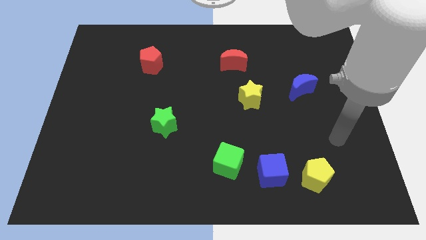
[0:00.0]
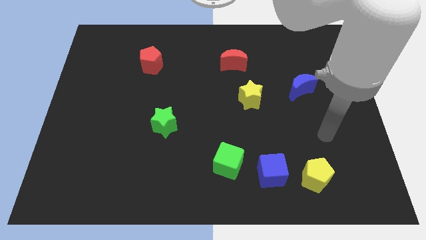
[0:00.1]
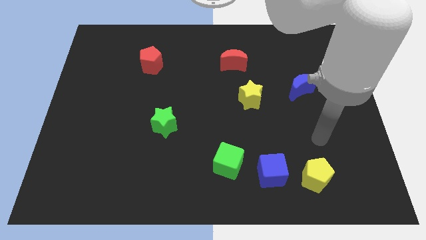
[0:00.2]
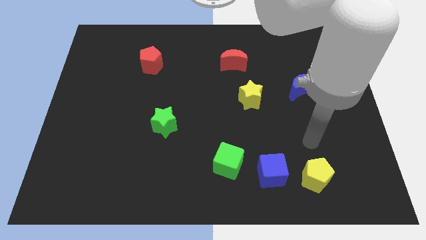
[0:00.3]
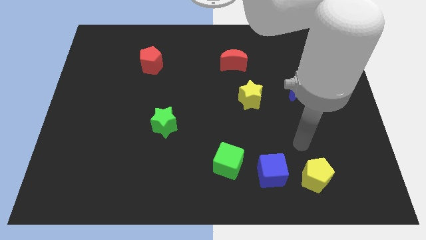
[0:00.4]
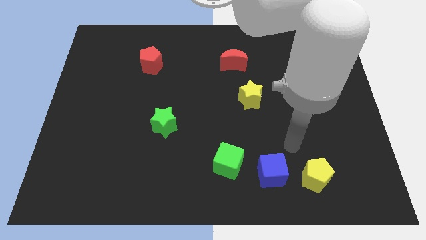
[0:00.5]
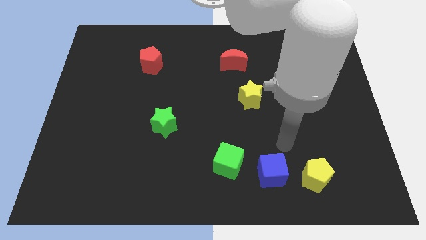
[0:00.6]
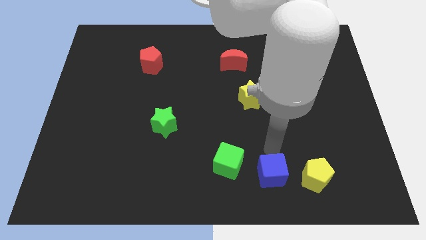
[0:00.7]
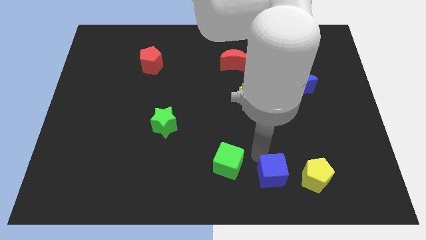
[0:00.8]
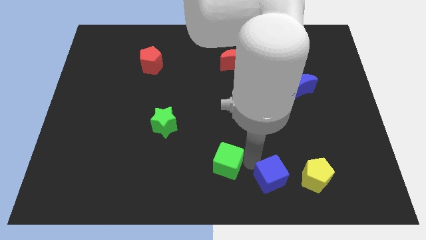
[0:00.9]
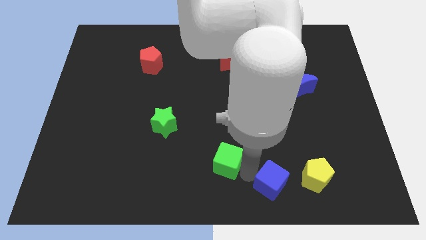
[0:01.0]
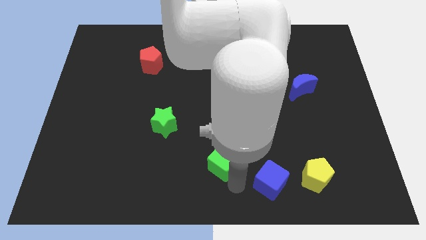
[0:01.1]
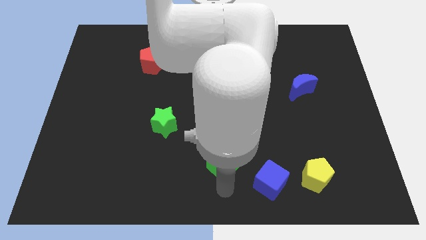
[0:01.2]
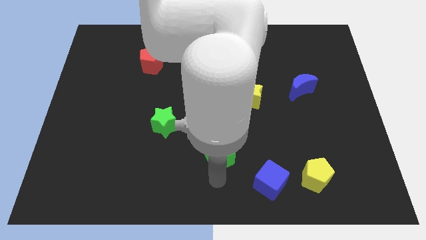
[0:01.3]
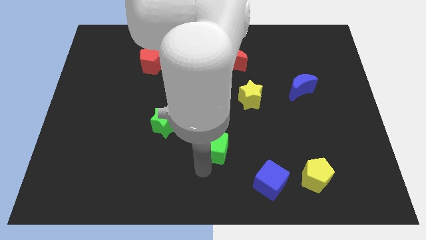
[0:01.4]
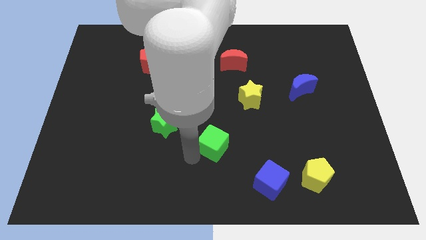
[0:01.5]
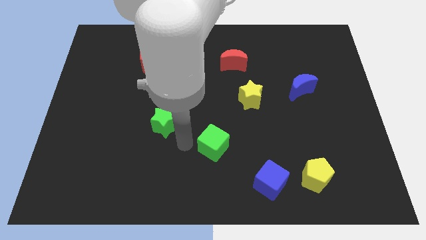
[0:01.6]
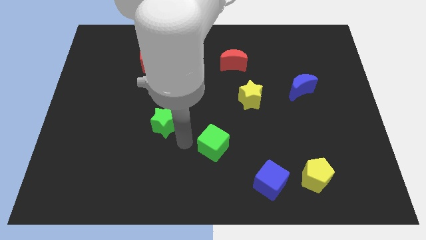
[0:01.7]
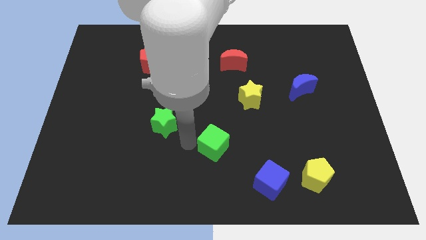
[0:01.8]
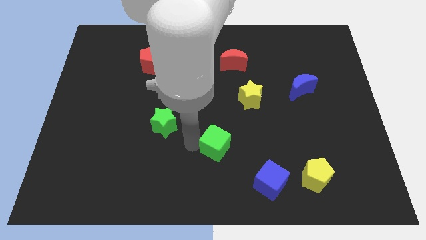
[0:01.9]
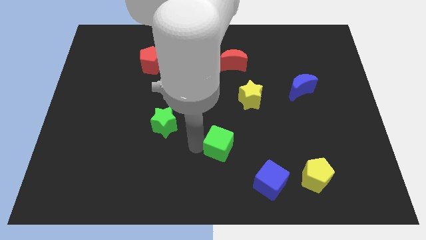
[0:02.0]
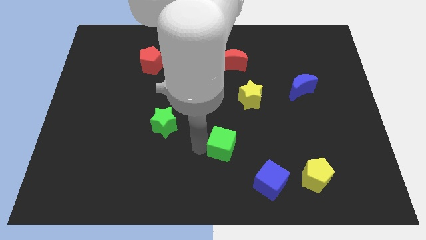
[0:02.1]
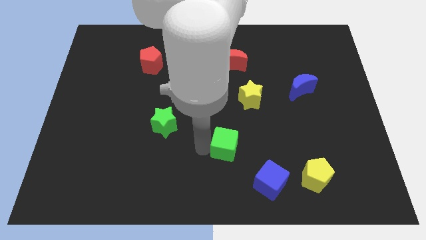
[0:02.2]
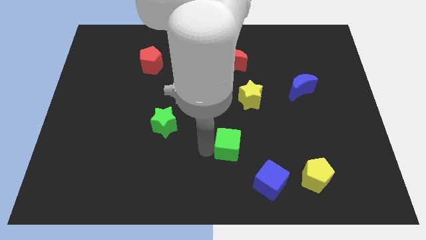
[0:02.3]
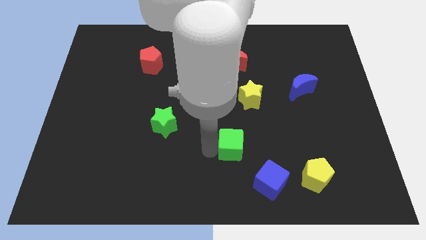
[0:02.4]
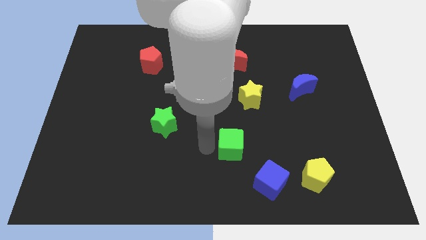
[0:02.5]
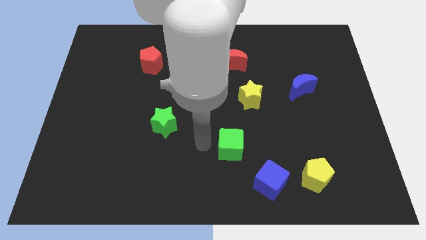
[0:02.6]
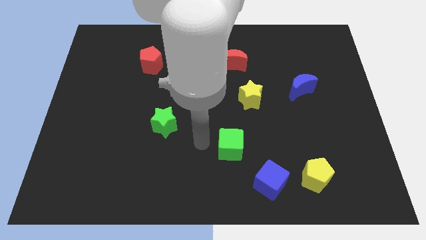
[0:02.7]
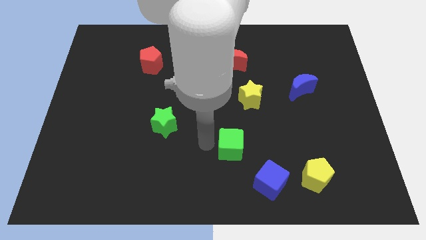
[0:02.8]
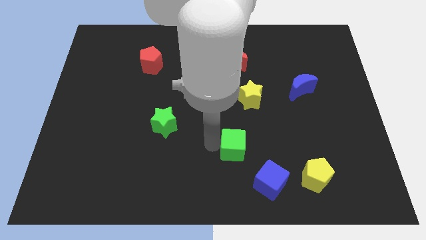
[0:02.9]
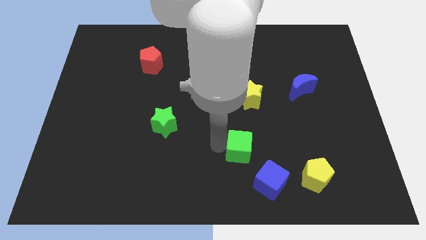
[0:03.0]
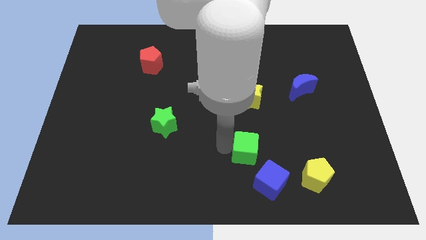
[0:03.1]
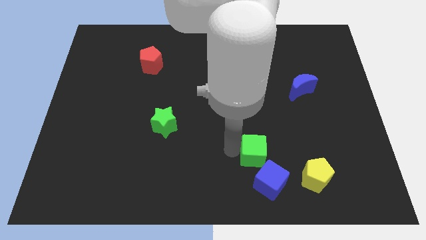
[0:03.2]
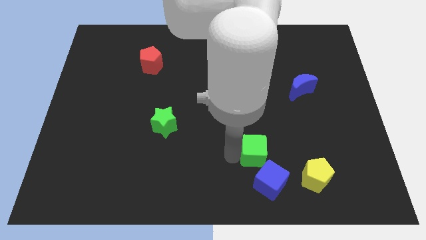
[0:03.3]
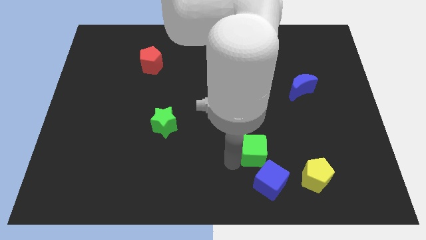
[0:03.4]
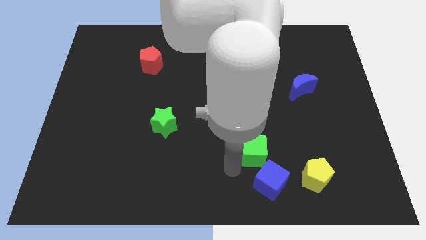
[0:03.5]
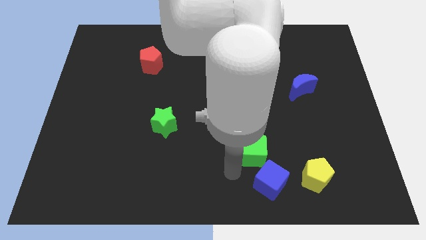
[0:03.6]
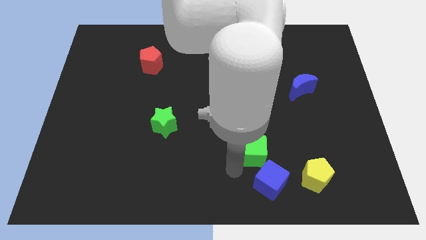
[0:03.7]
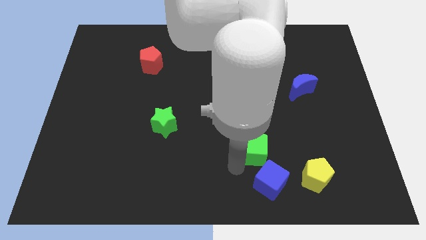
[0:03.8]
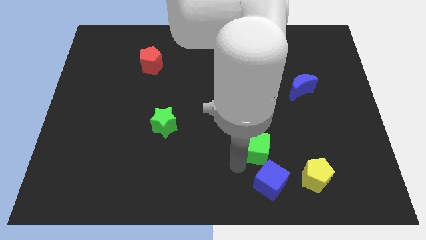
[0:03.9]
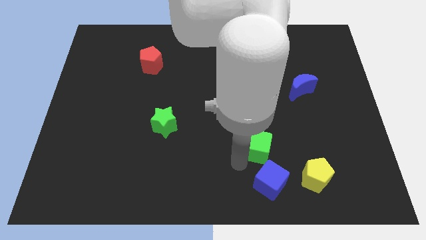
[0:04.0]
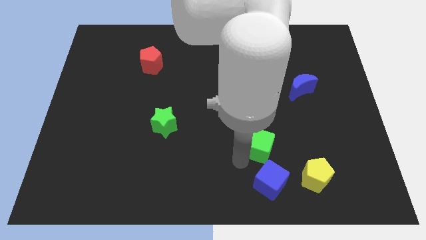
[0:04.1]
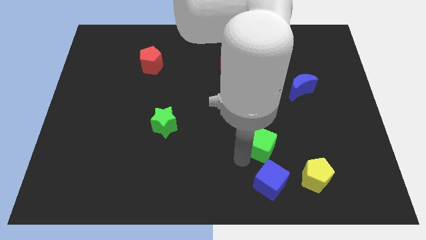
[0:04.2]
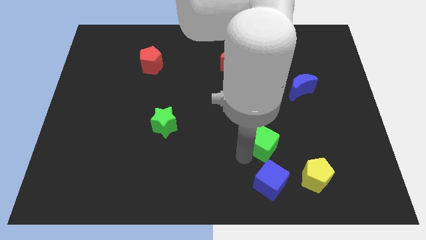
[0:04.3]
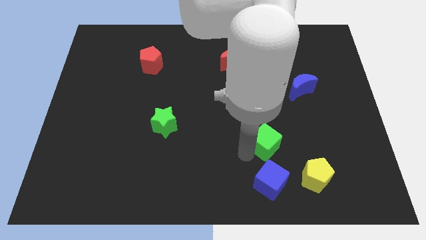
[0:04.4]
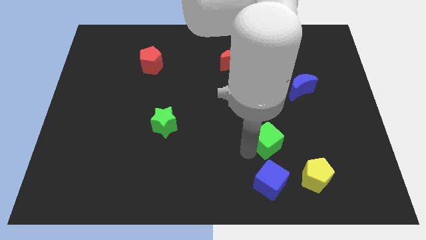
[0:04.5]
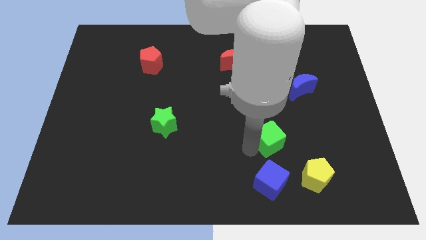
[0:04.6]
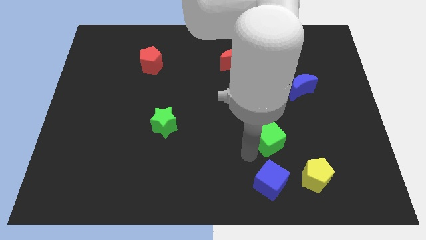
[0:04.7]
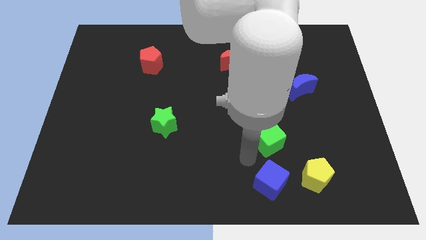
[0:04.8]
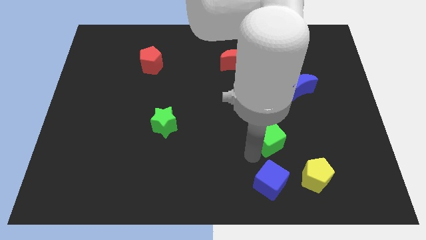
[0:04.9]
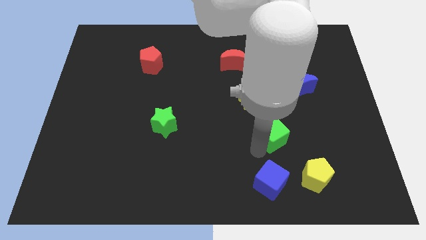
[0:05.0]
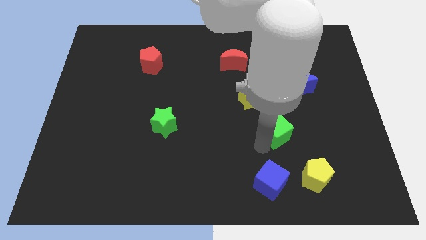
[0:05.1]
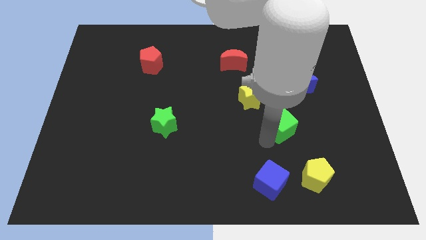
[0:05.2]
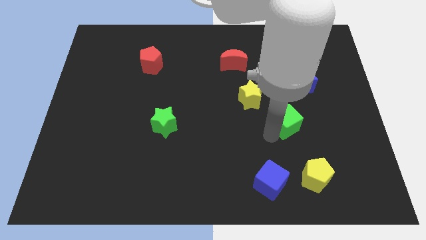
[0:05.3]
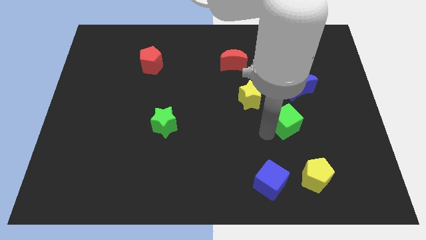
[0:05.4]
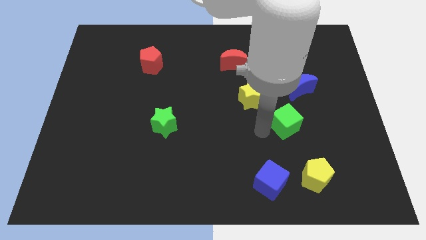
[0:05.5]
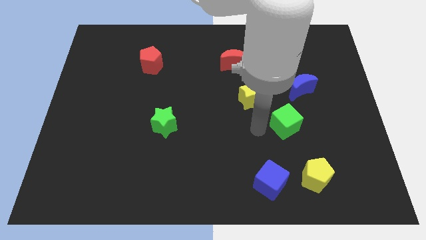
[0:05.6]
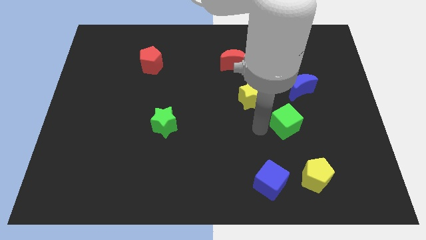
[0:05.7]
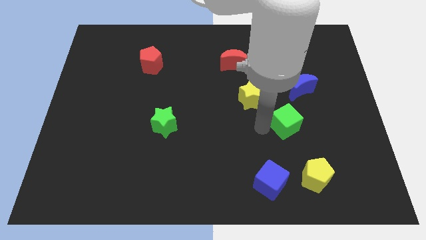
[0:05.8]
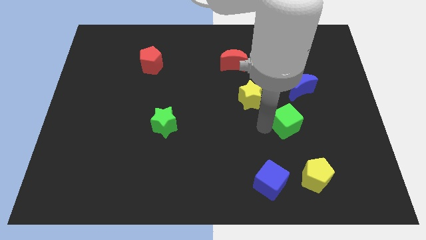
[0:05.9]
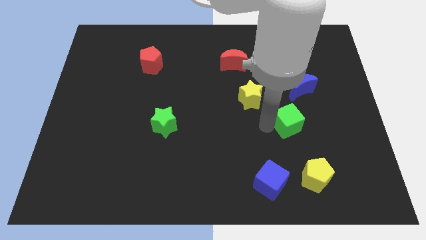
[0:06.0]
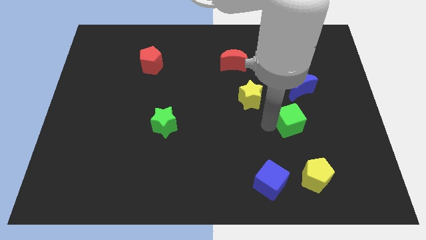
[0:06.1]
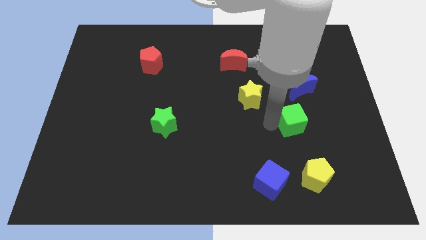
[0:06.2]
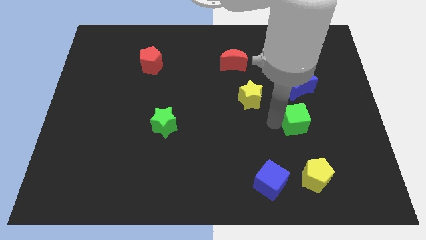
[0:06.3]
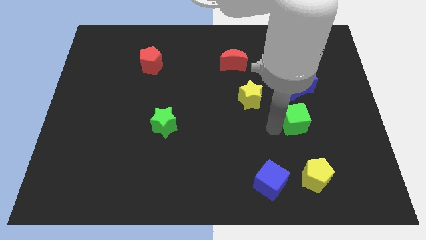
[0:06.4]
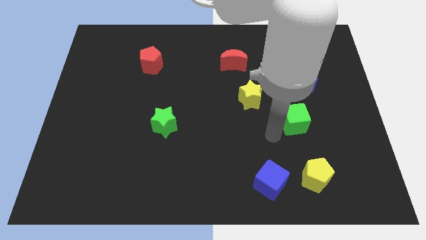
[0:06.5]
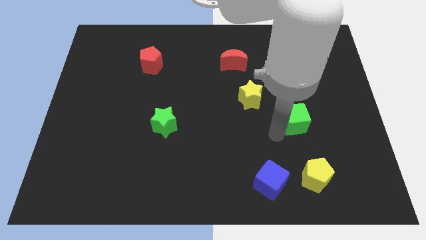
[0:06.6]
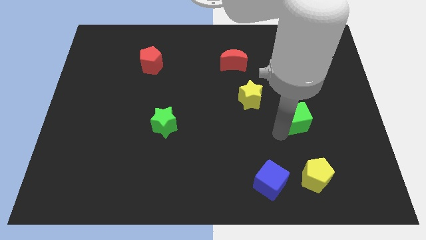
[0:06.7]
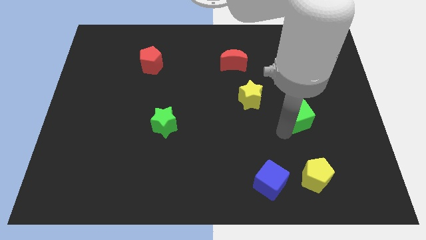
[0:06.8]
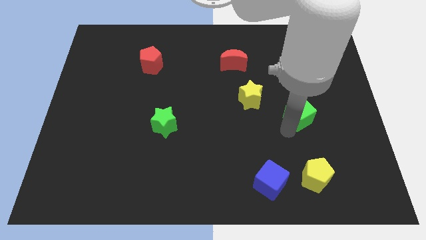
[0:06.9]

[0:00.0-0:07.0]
push the green cube upwards and right

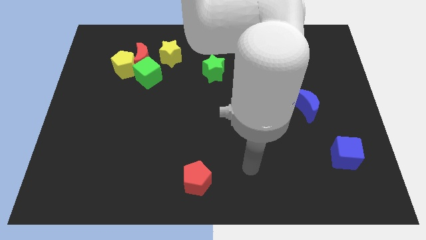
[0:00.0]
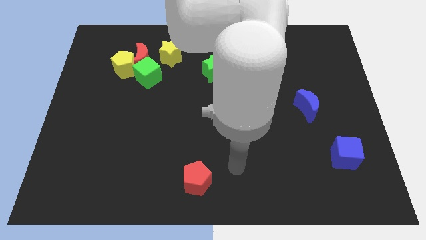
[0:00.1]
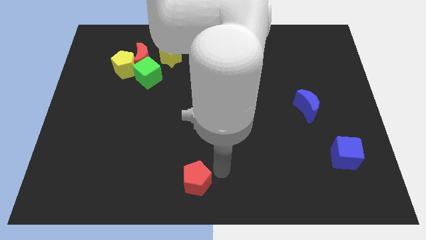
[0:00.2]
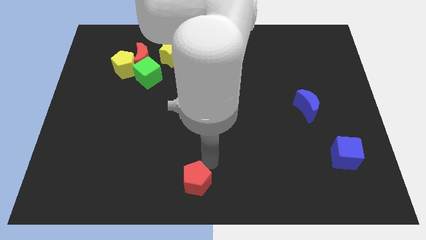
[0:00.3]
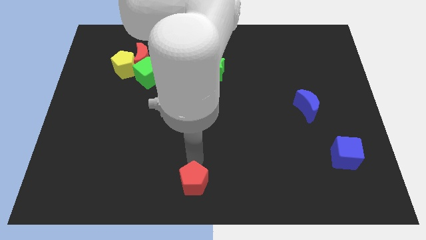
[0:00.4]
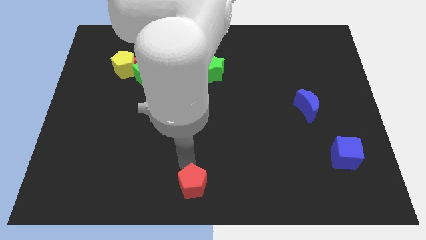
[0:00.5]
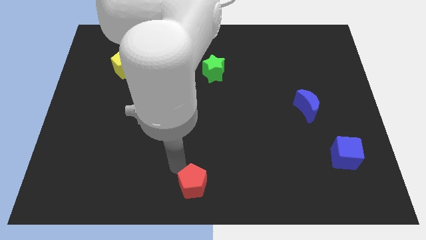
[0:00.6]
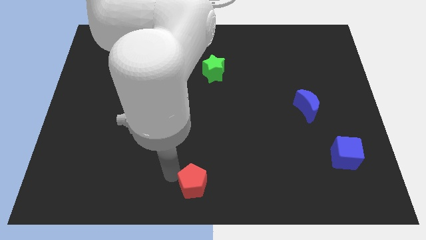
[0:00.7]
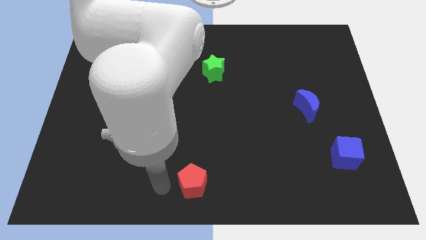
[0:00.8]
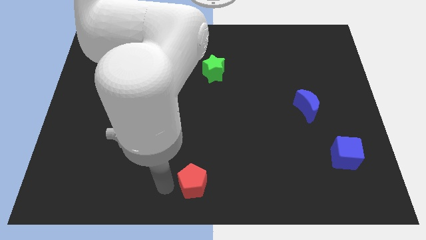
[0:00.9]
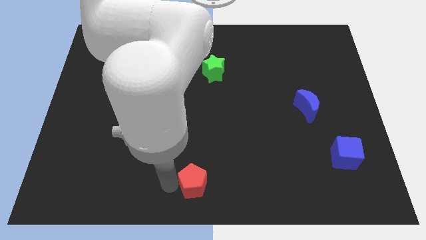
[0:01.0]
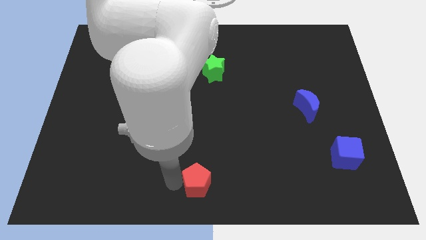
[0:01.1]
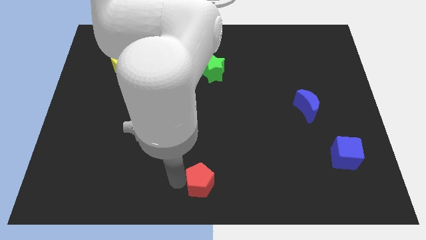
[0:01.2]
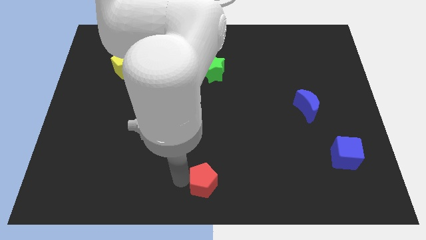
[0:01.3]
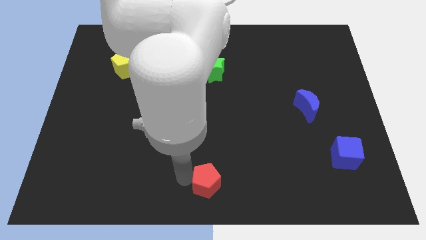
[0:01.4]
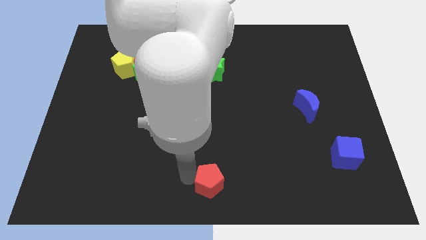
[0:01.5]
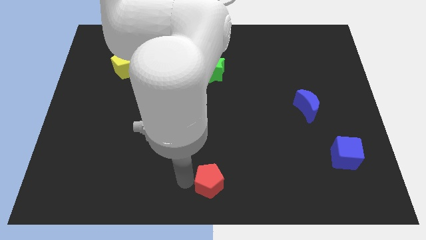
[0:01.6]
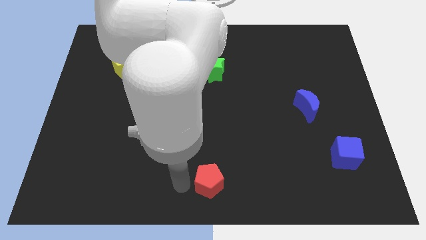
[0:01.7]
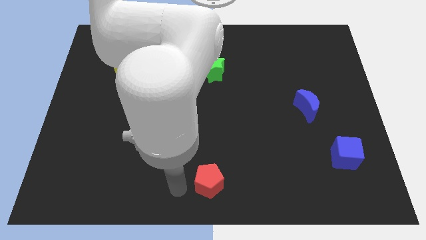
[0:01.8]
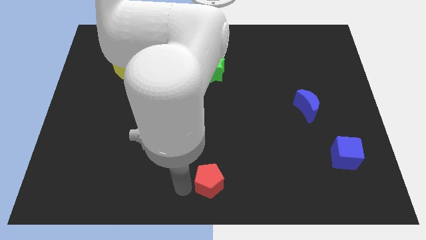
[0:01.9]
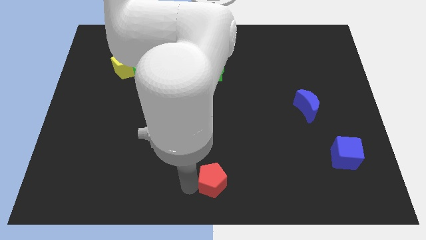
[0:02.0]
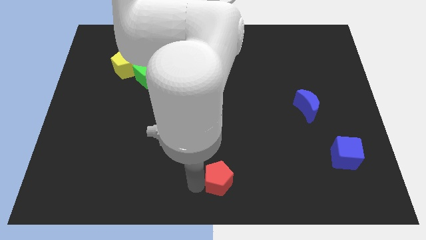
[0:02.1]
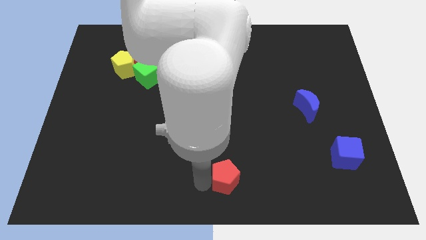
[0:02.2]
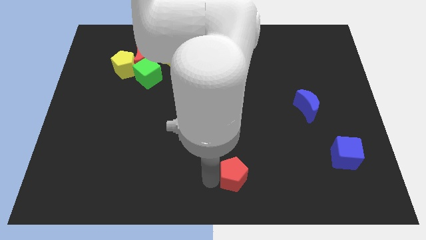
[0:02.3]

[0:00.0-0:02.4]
slightly slide the red pentagon to the right
